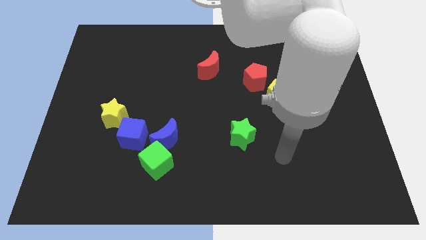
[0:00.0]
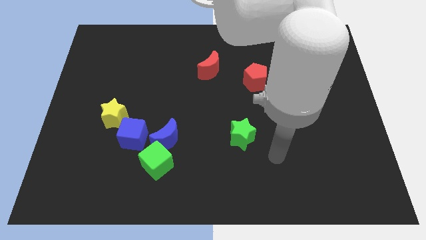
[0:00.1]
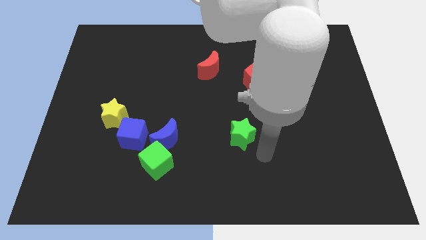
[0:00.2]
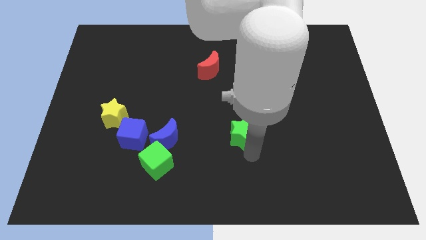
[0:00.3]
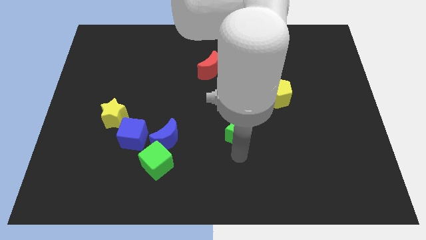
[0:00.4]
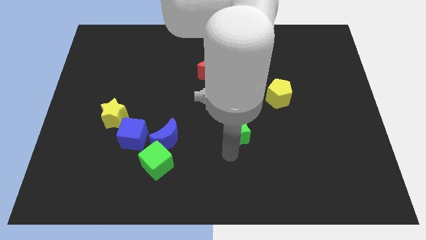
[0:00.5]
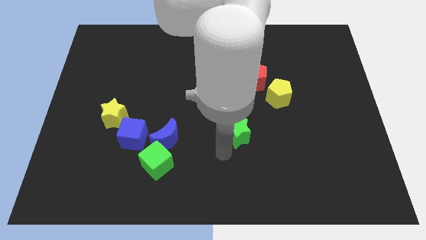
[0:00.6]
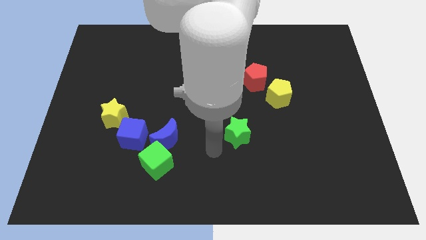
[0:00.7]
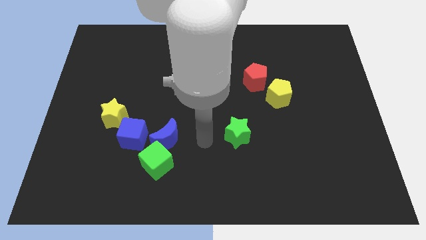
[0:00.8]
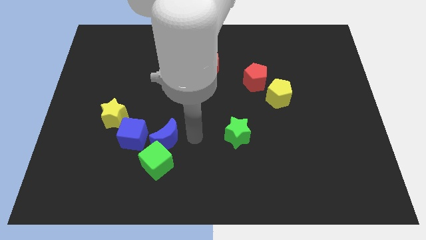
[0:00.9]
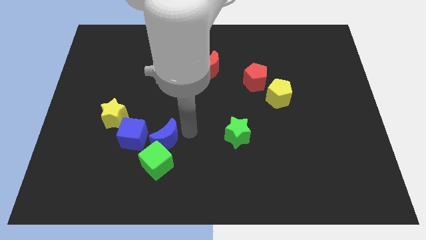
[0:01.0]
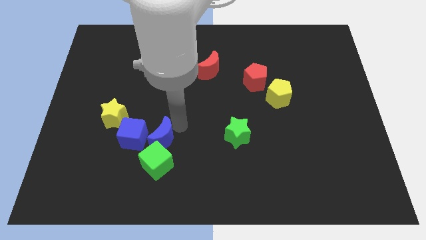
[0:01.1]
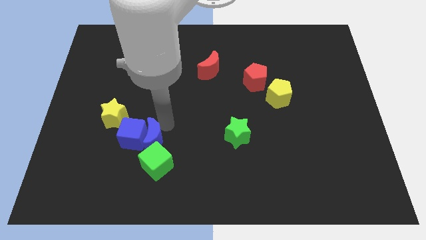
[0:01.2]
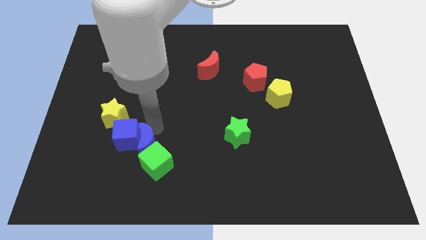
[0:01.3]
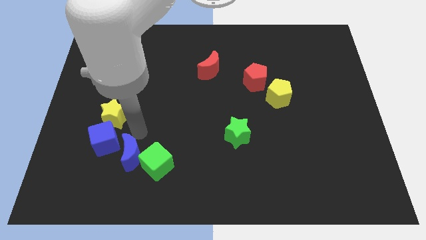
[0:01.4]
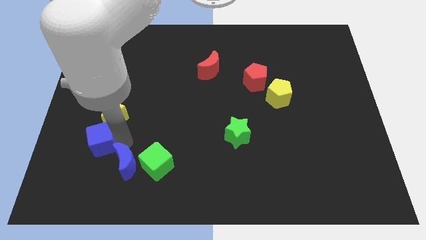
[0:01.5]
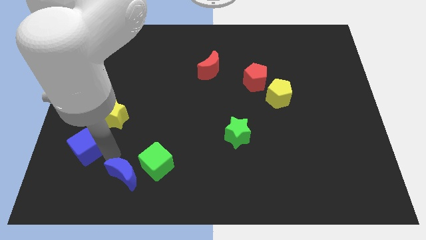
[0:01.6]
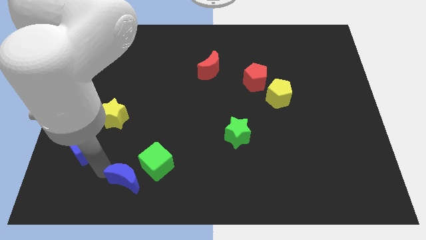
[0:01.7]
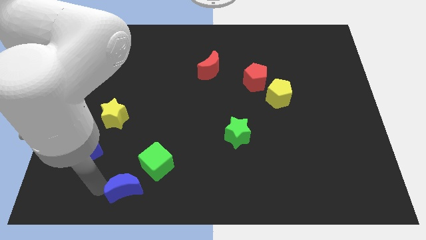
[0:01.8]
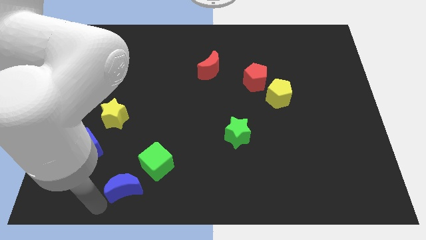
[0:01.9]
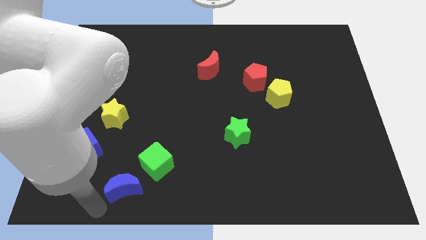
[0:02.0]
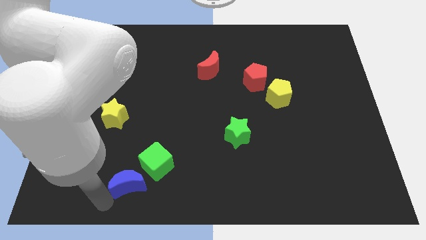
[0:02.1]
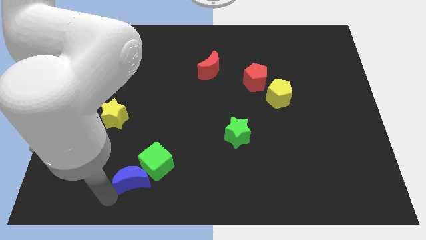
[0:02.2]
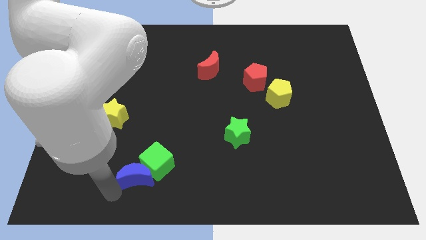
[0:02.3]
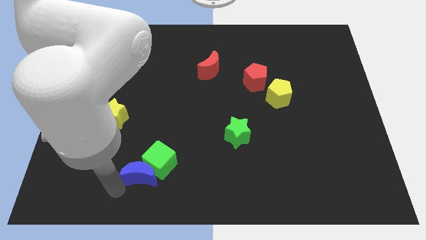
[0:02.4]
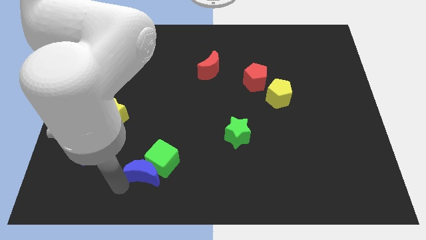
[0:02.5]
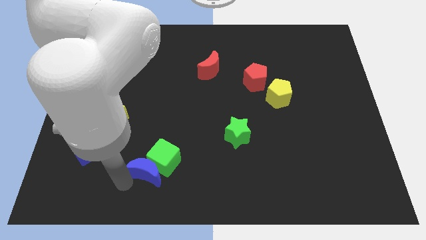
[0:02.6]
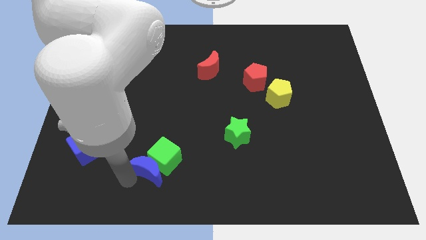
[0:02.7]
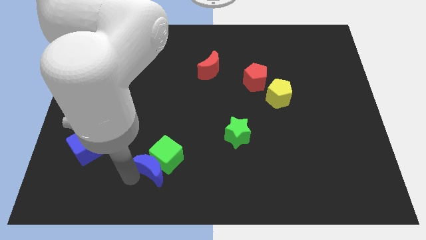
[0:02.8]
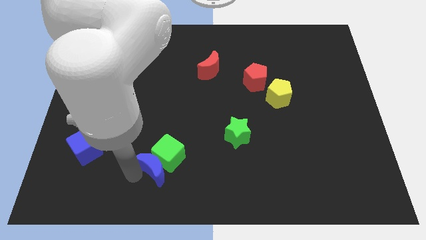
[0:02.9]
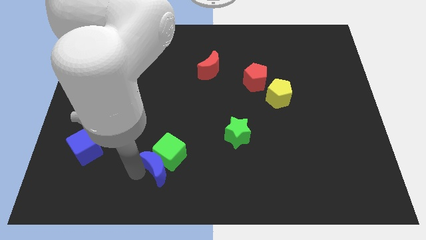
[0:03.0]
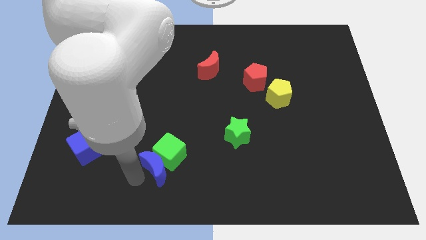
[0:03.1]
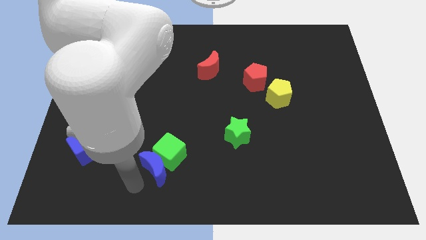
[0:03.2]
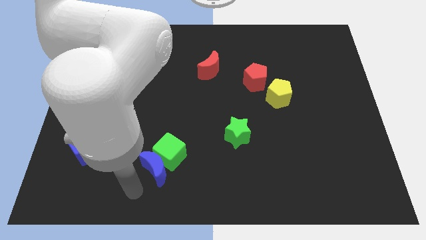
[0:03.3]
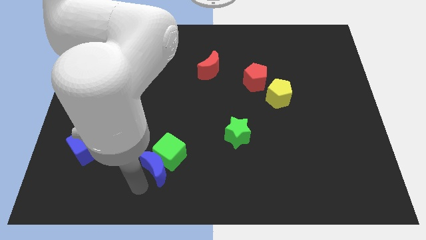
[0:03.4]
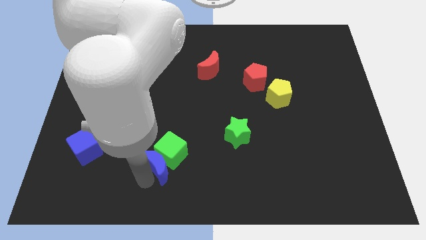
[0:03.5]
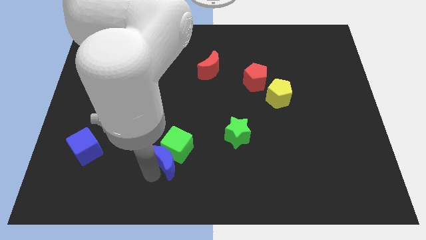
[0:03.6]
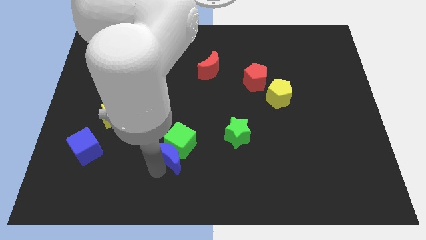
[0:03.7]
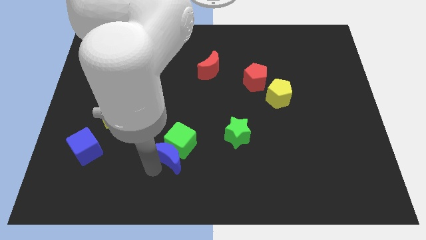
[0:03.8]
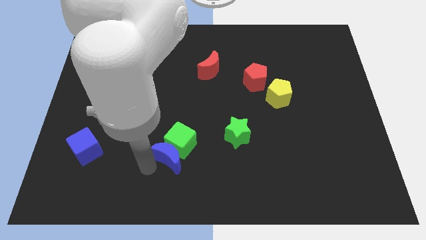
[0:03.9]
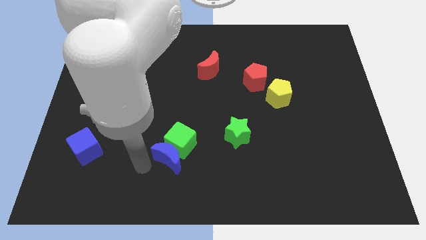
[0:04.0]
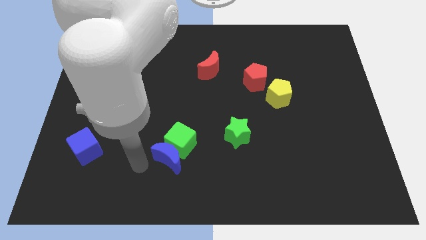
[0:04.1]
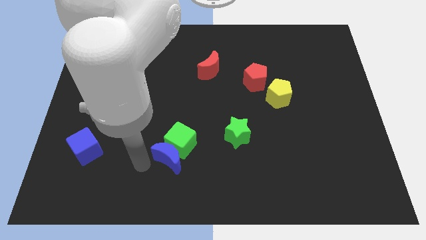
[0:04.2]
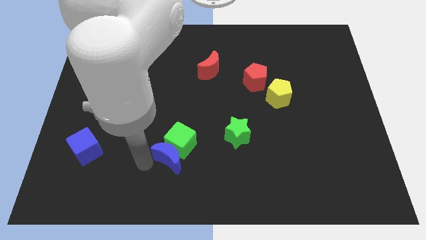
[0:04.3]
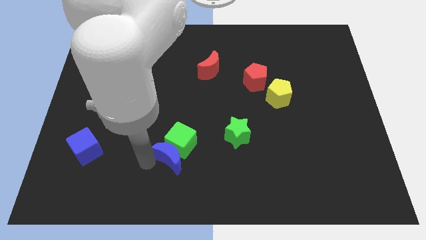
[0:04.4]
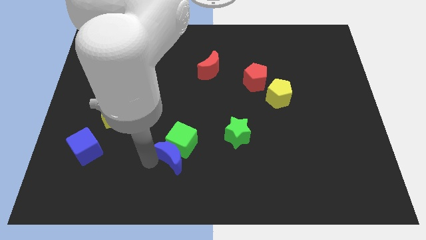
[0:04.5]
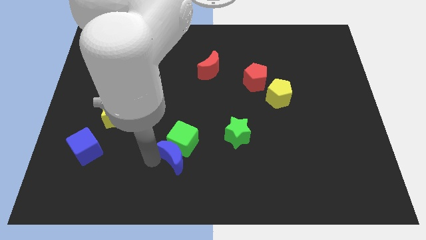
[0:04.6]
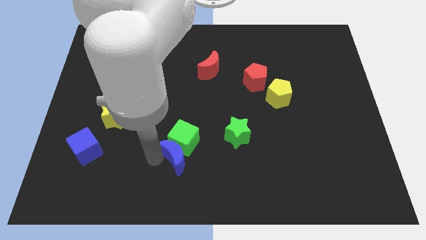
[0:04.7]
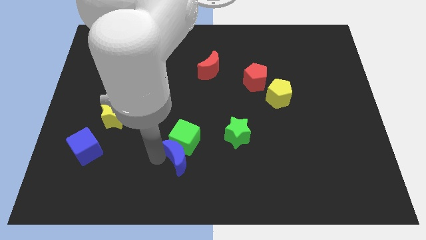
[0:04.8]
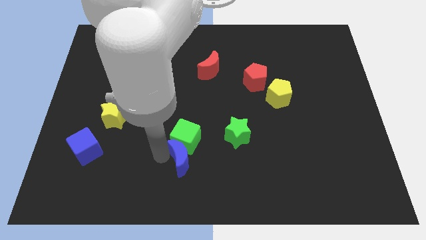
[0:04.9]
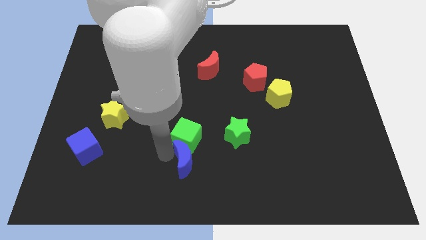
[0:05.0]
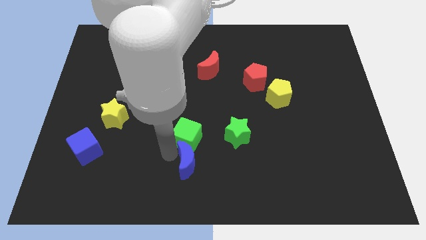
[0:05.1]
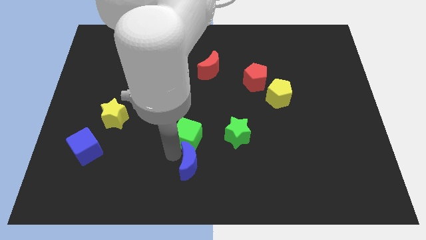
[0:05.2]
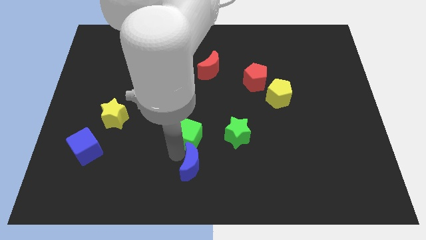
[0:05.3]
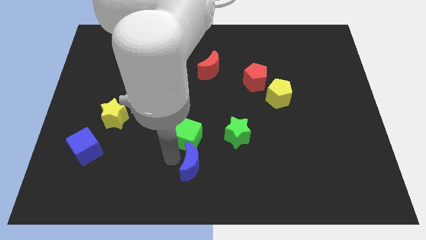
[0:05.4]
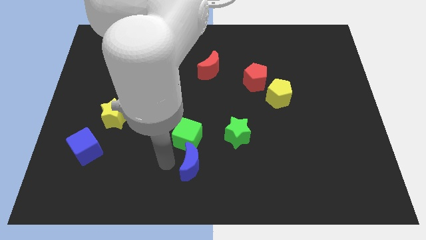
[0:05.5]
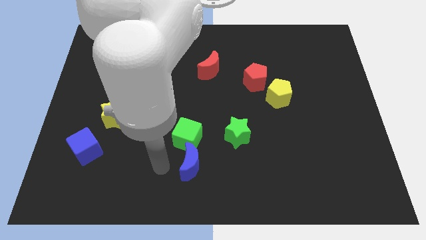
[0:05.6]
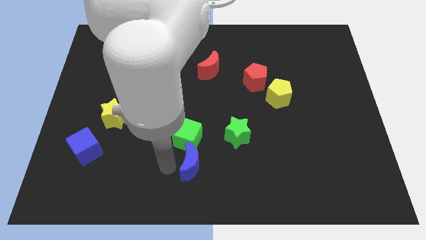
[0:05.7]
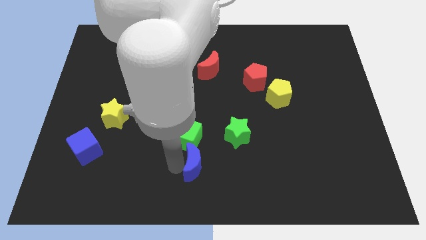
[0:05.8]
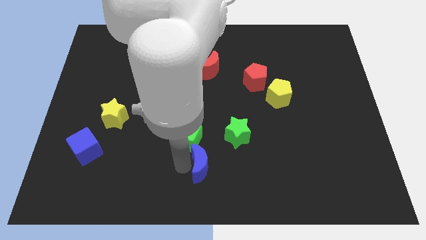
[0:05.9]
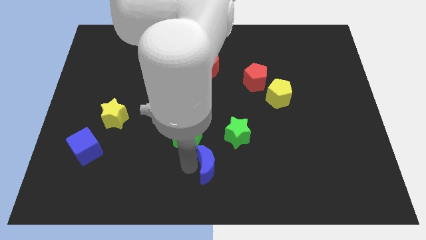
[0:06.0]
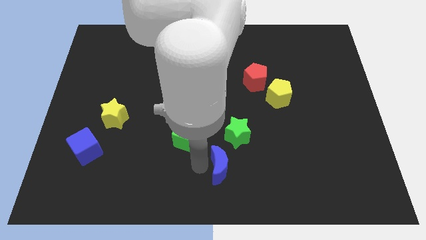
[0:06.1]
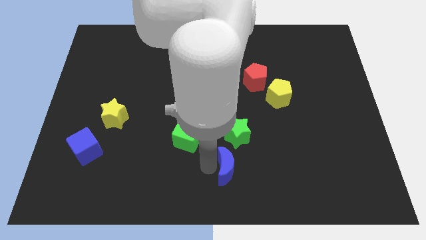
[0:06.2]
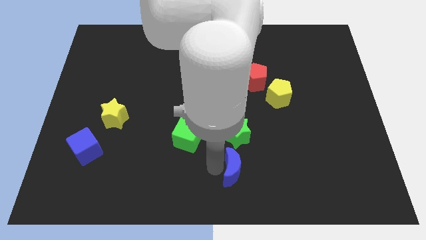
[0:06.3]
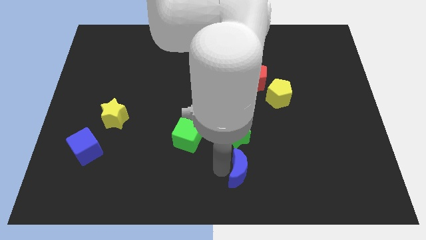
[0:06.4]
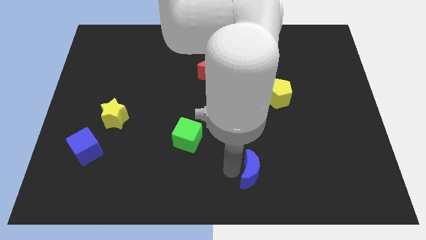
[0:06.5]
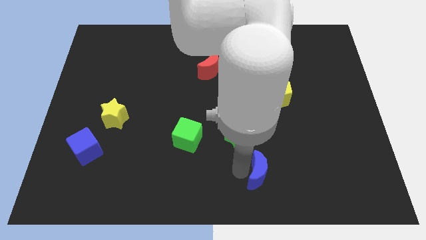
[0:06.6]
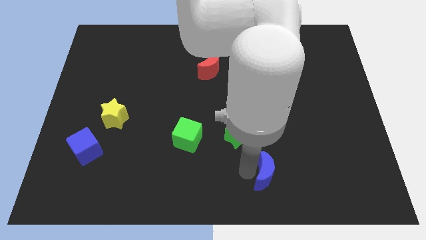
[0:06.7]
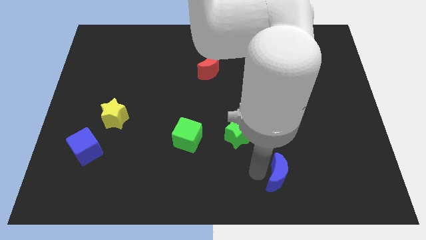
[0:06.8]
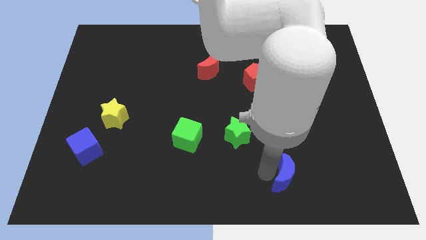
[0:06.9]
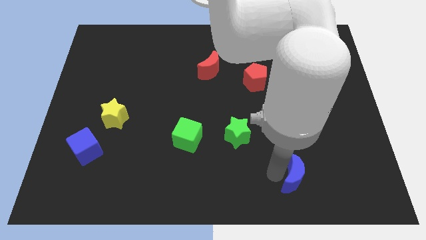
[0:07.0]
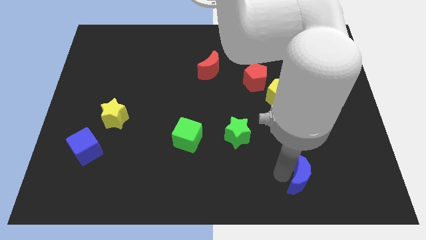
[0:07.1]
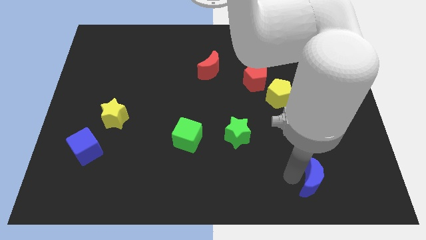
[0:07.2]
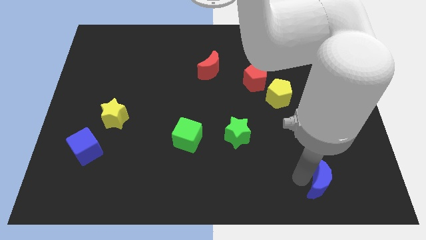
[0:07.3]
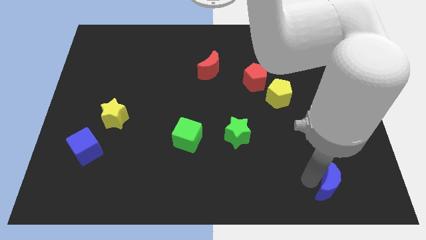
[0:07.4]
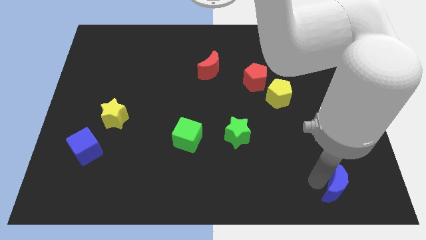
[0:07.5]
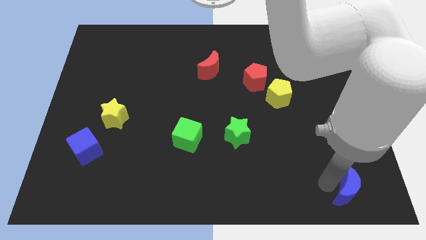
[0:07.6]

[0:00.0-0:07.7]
slide the blue moon to the bottom right of the board
